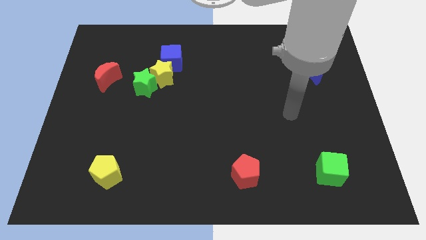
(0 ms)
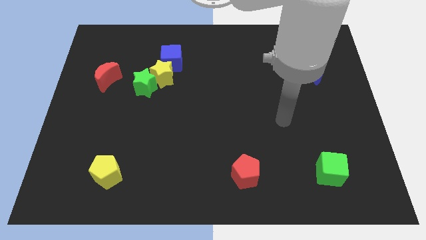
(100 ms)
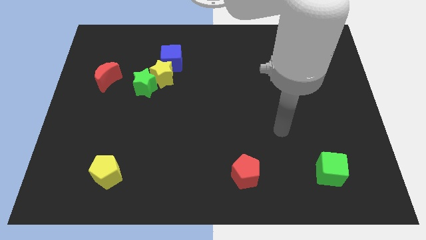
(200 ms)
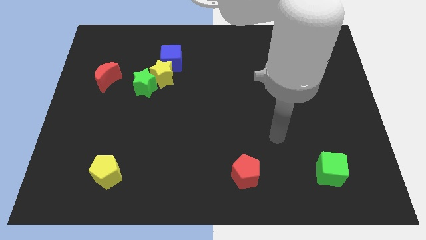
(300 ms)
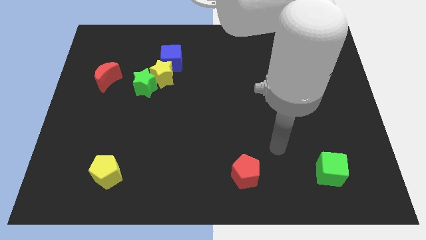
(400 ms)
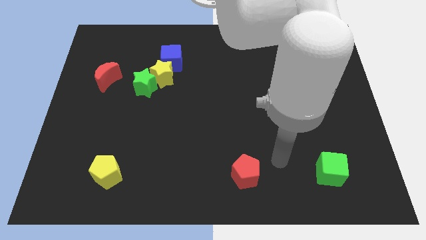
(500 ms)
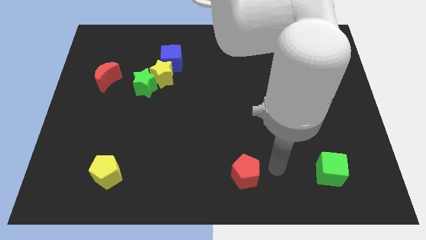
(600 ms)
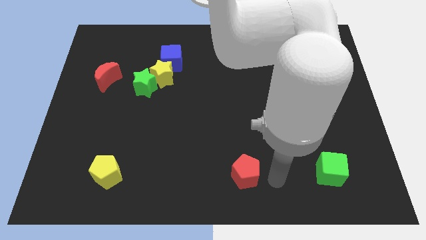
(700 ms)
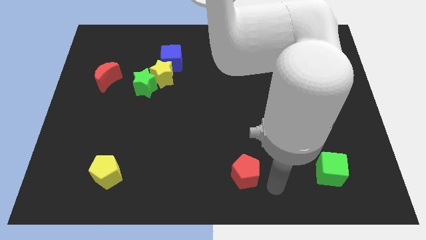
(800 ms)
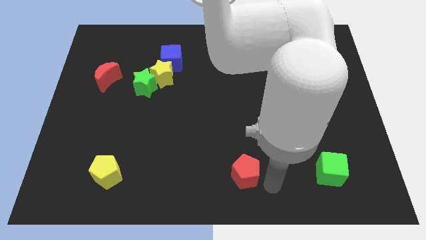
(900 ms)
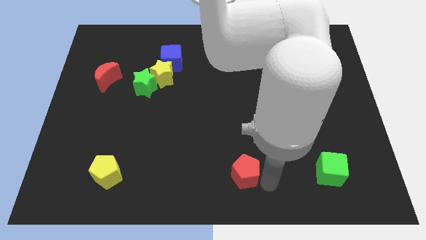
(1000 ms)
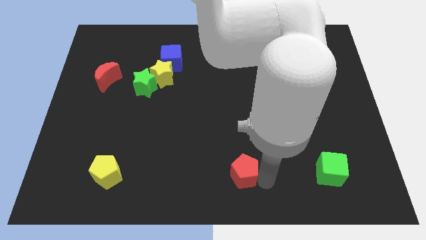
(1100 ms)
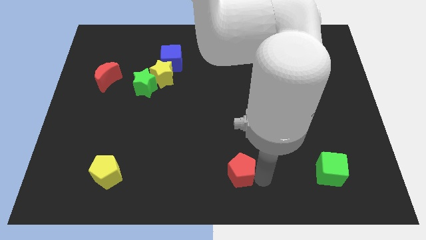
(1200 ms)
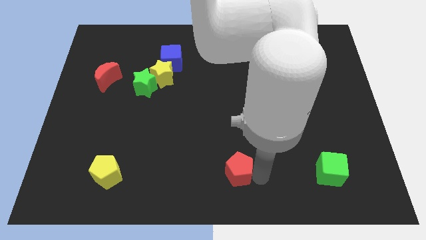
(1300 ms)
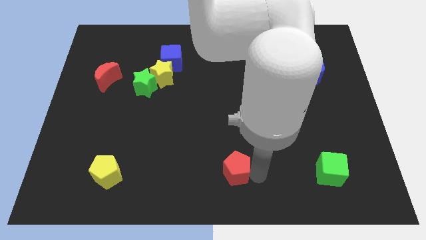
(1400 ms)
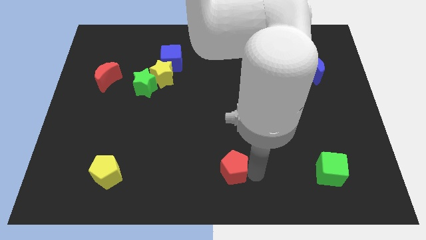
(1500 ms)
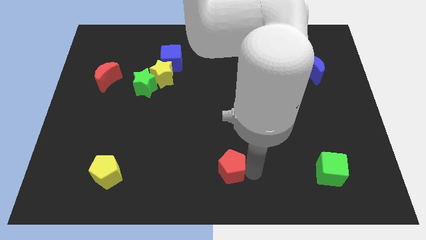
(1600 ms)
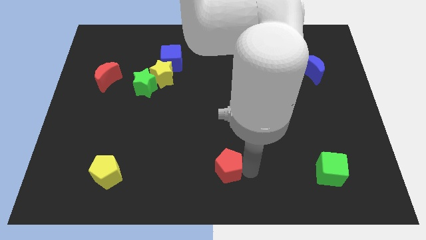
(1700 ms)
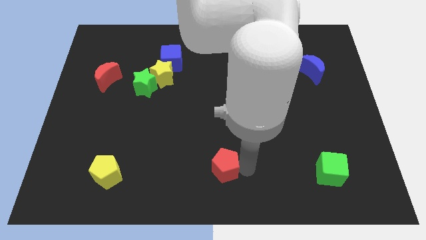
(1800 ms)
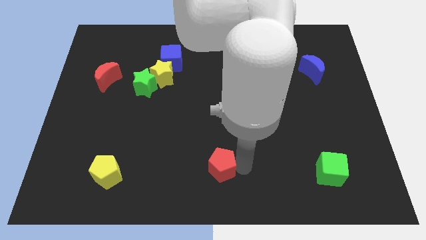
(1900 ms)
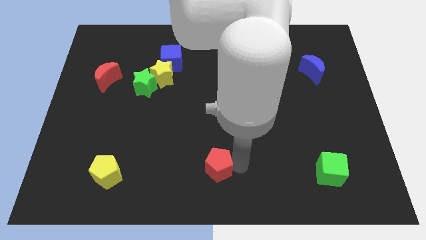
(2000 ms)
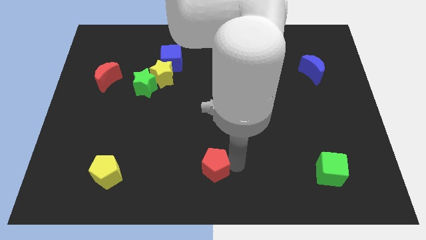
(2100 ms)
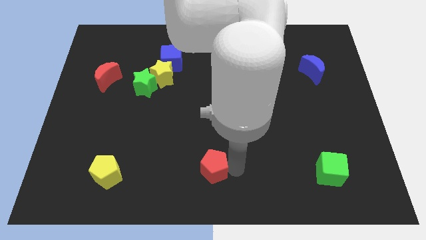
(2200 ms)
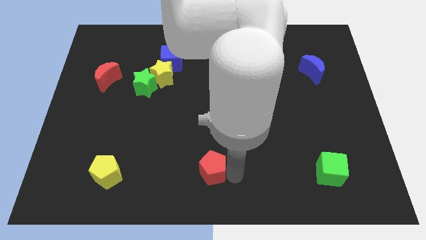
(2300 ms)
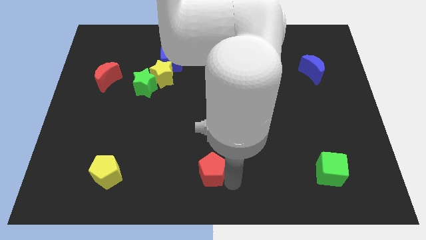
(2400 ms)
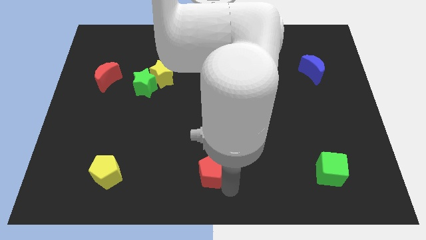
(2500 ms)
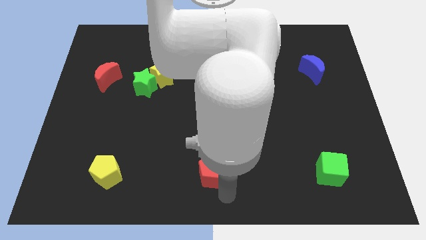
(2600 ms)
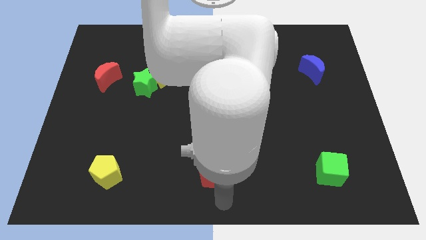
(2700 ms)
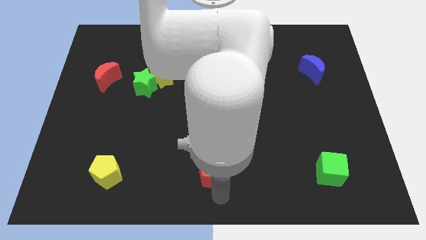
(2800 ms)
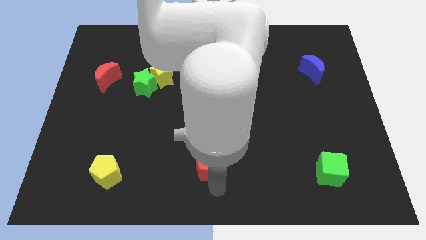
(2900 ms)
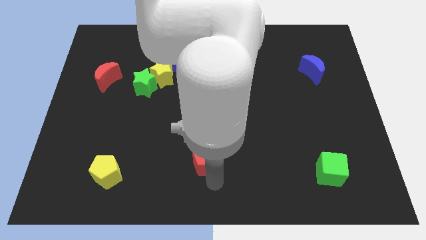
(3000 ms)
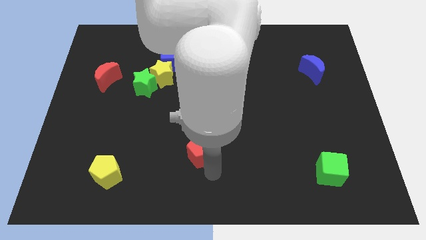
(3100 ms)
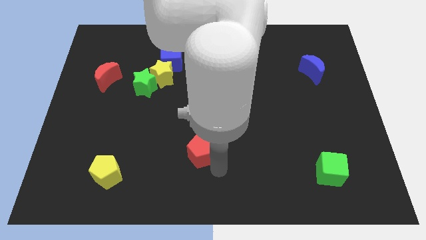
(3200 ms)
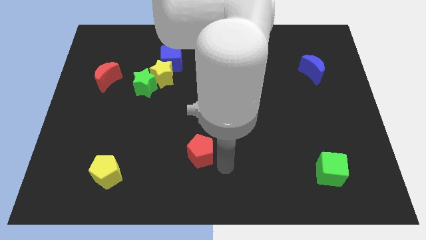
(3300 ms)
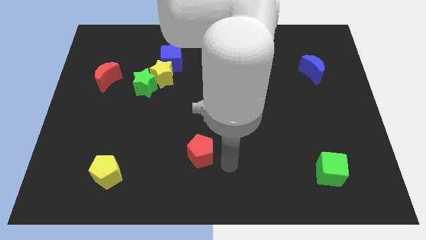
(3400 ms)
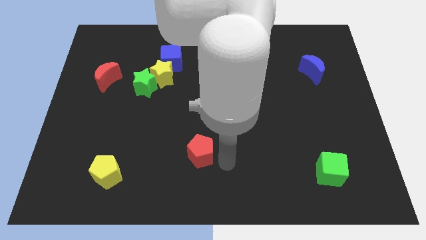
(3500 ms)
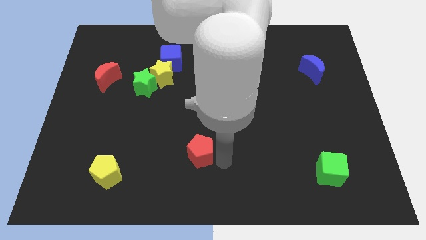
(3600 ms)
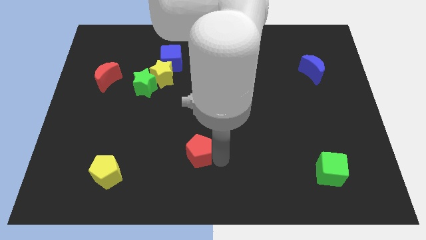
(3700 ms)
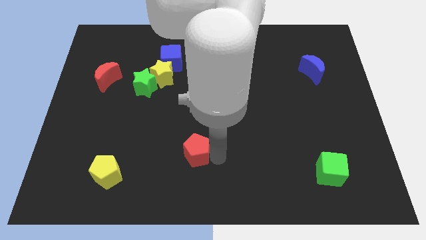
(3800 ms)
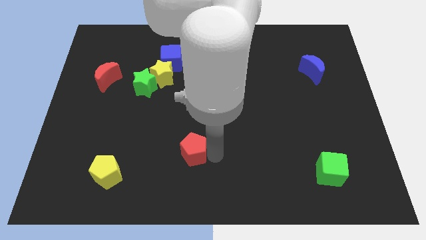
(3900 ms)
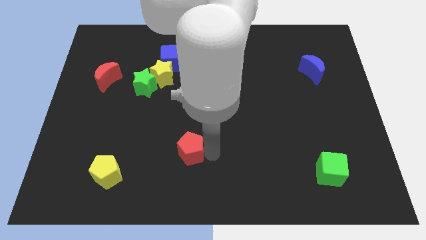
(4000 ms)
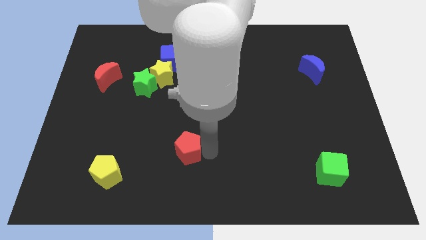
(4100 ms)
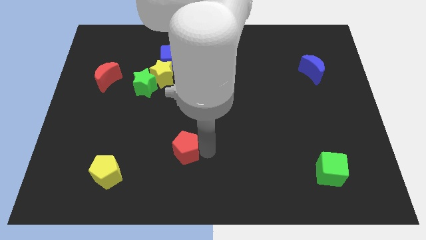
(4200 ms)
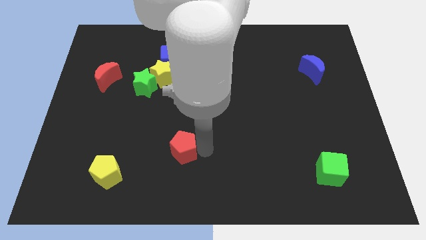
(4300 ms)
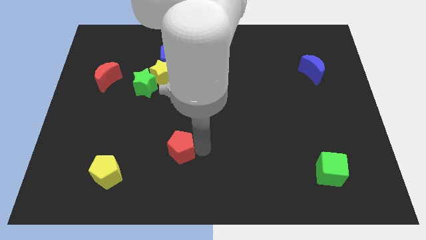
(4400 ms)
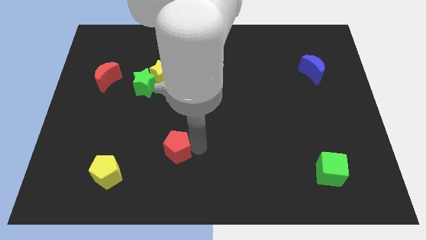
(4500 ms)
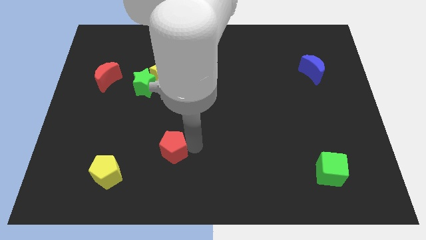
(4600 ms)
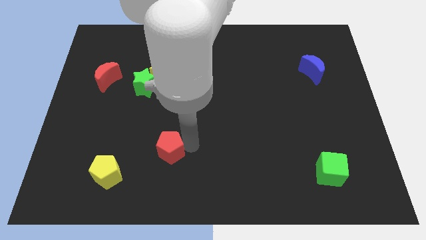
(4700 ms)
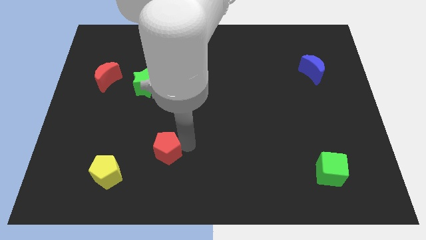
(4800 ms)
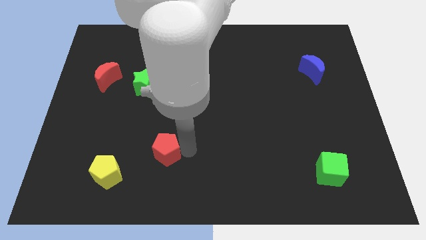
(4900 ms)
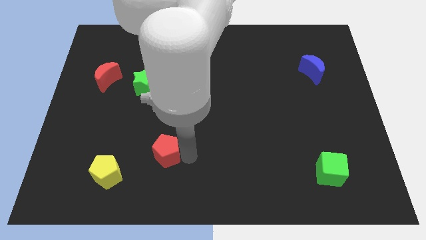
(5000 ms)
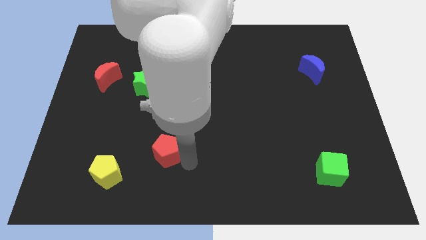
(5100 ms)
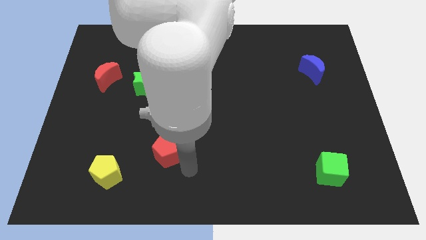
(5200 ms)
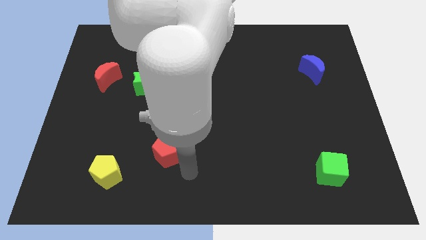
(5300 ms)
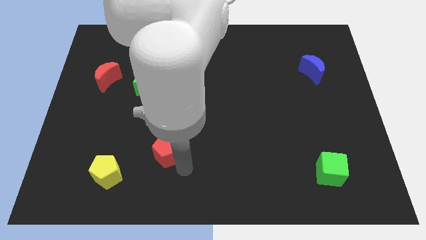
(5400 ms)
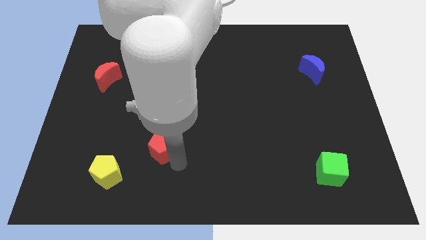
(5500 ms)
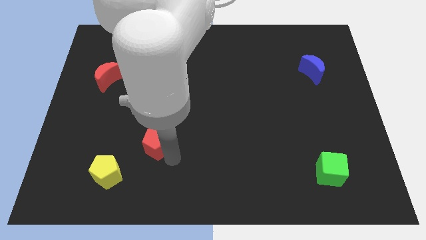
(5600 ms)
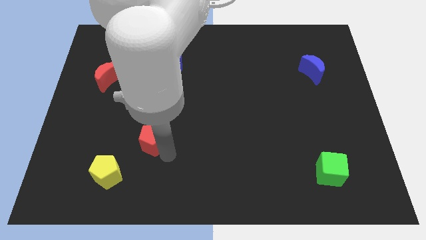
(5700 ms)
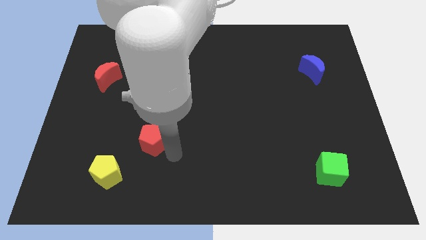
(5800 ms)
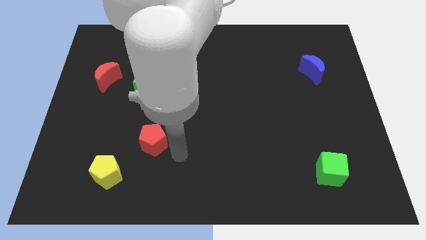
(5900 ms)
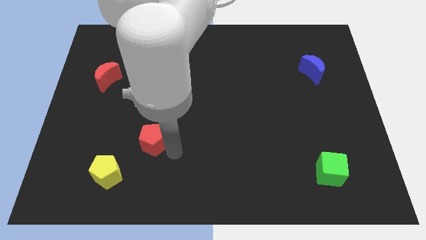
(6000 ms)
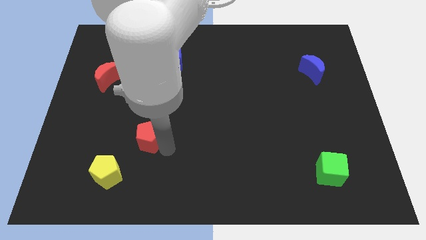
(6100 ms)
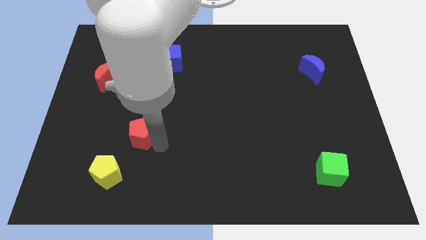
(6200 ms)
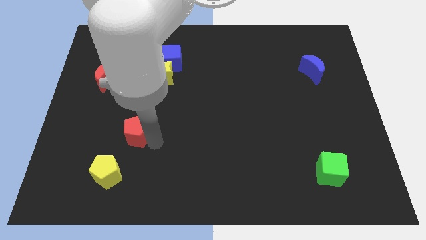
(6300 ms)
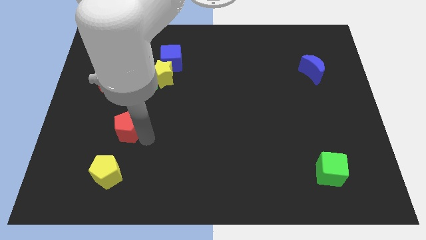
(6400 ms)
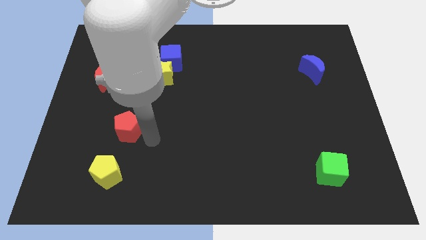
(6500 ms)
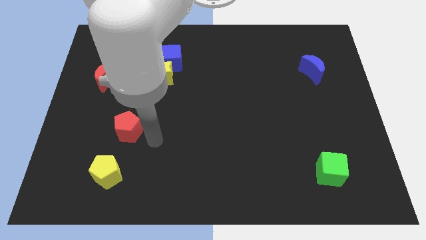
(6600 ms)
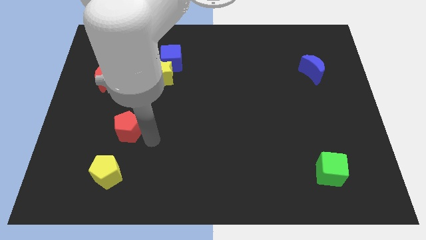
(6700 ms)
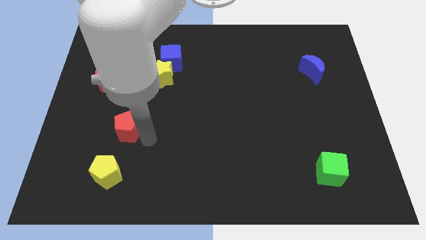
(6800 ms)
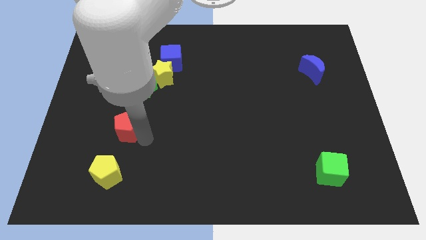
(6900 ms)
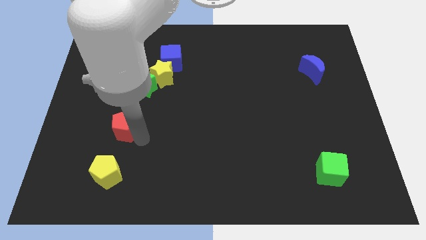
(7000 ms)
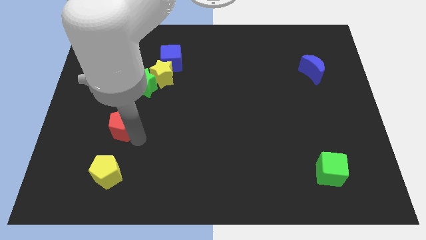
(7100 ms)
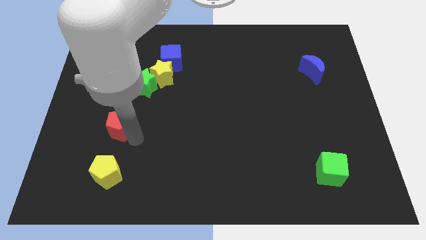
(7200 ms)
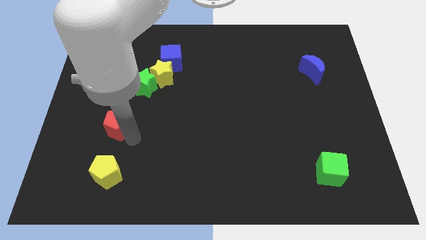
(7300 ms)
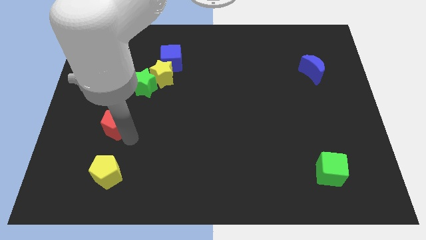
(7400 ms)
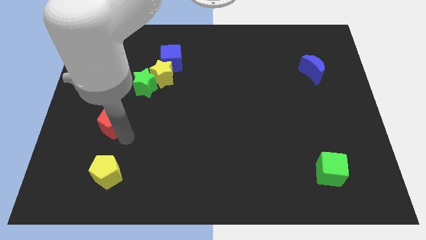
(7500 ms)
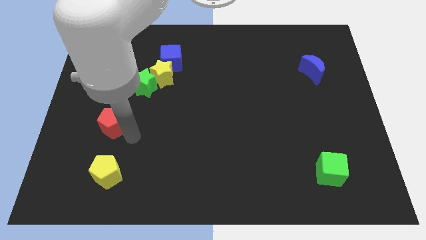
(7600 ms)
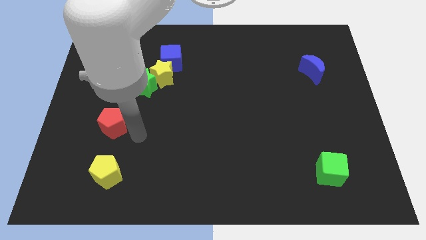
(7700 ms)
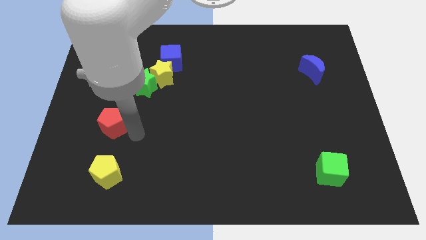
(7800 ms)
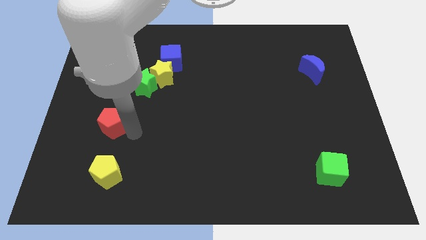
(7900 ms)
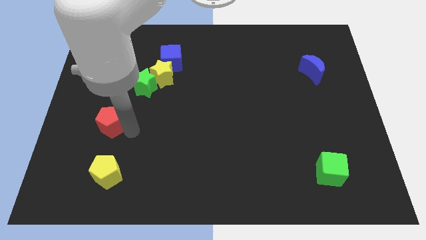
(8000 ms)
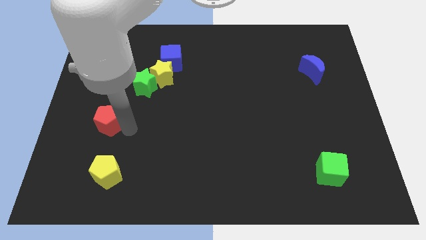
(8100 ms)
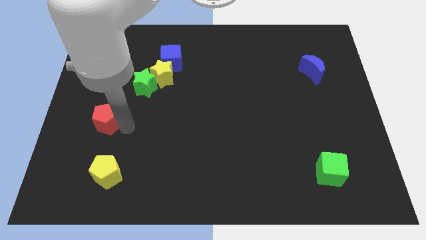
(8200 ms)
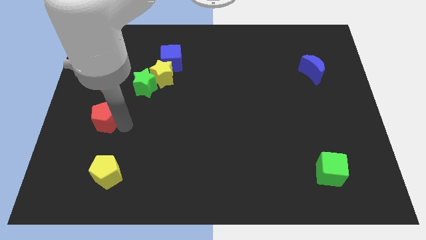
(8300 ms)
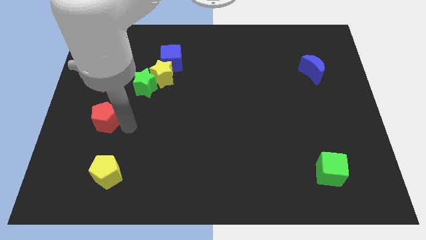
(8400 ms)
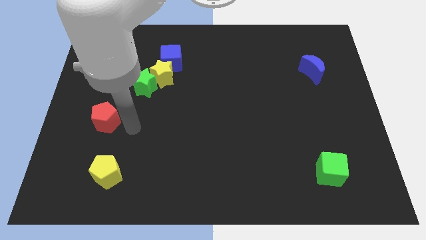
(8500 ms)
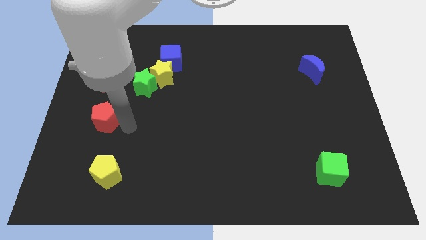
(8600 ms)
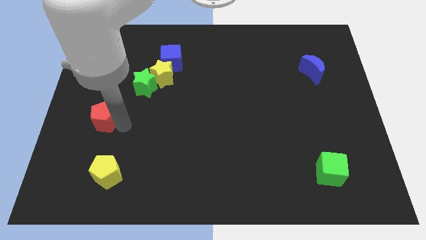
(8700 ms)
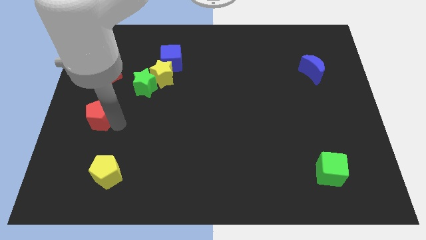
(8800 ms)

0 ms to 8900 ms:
put the red pentagon to the left side of the board
